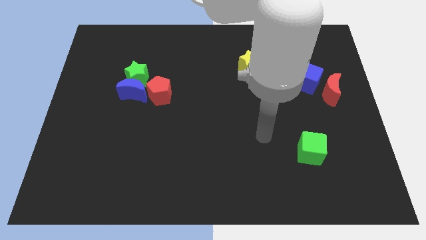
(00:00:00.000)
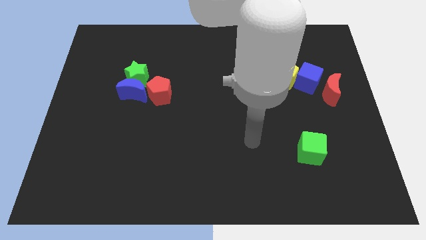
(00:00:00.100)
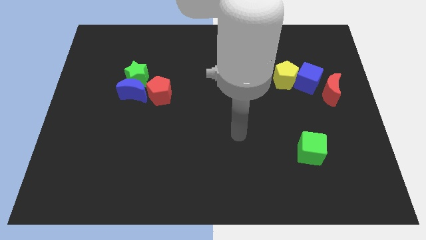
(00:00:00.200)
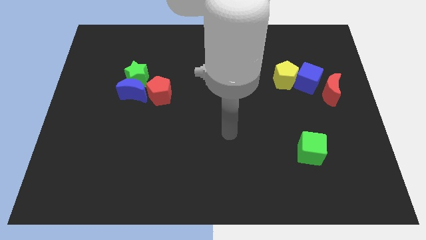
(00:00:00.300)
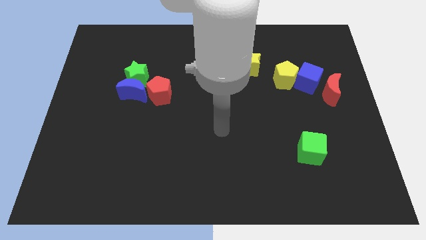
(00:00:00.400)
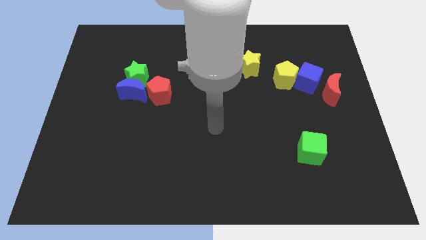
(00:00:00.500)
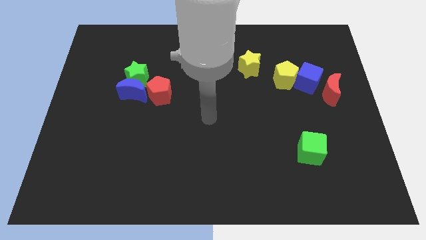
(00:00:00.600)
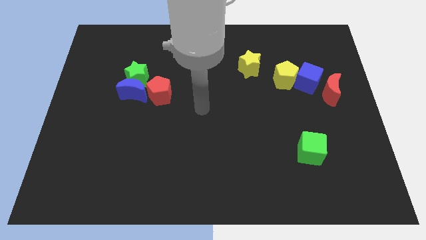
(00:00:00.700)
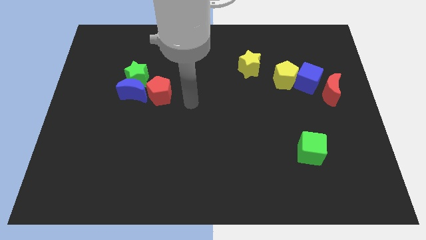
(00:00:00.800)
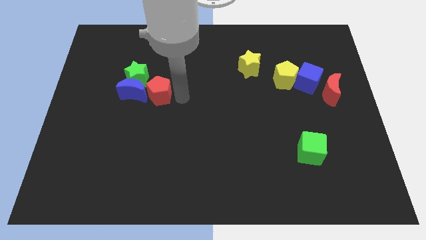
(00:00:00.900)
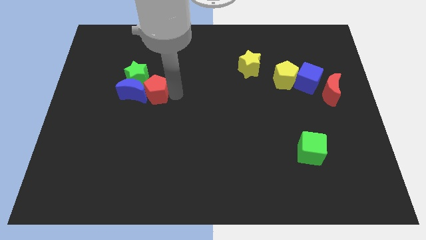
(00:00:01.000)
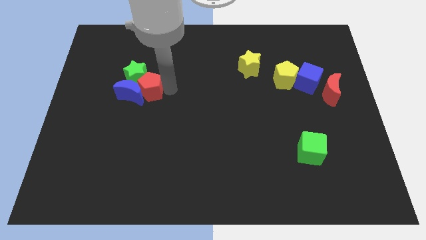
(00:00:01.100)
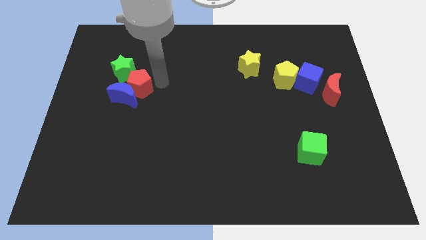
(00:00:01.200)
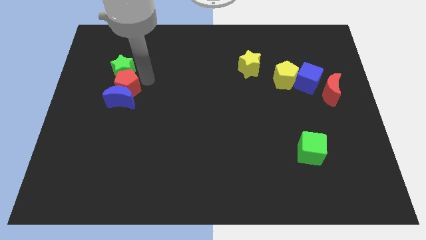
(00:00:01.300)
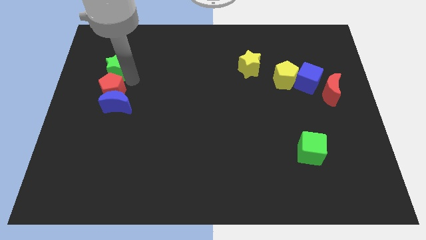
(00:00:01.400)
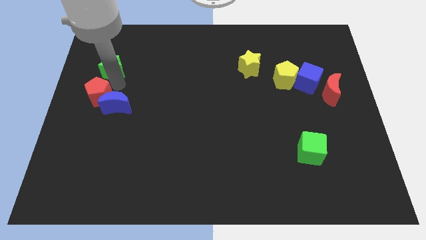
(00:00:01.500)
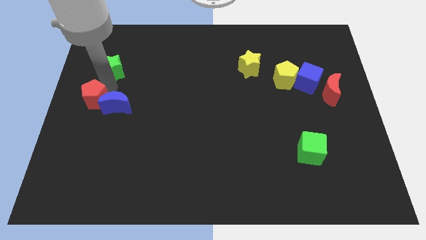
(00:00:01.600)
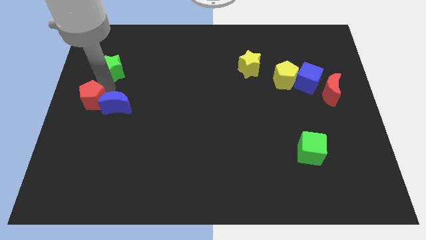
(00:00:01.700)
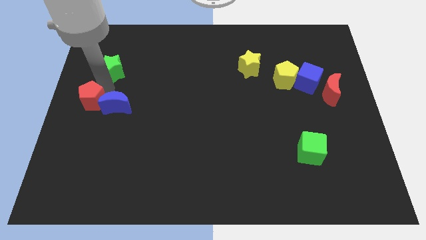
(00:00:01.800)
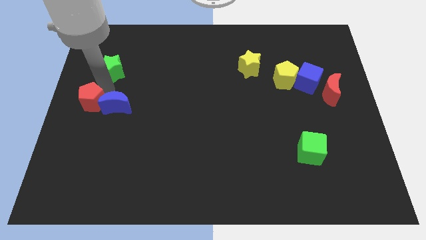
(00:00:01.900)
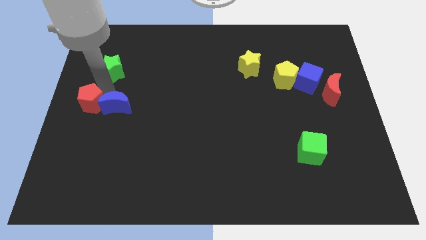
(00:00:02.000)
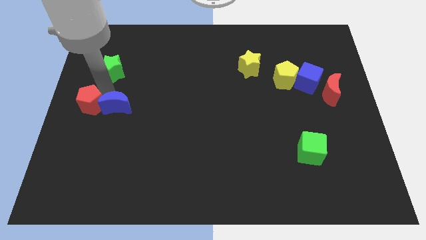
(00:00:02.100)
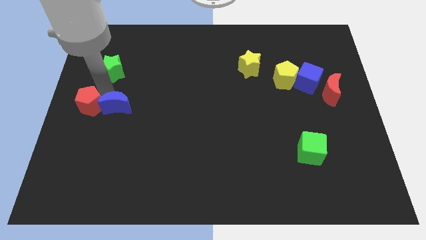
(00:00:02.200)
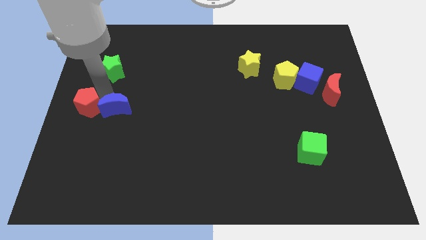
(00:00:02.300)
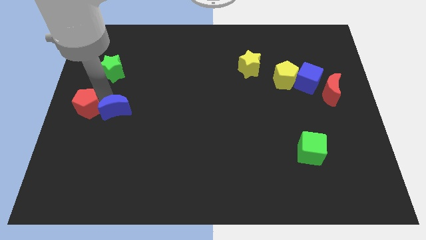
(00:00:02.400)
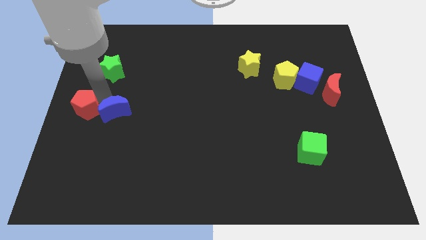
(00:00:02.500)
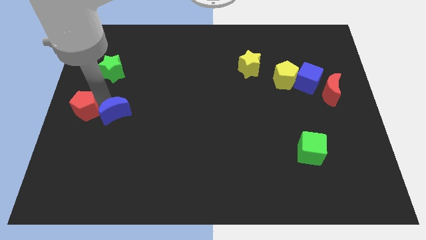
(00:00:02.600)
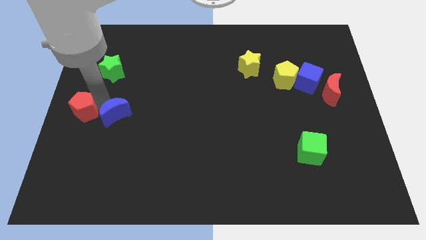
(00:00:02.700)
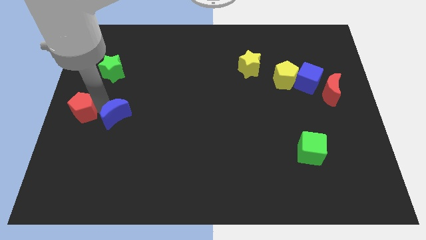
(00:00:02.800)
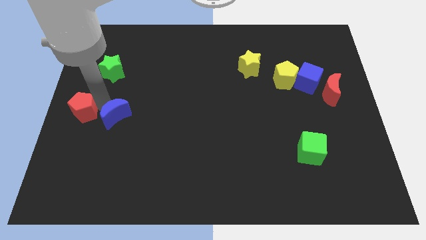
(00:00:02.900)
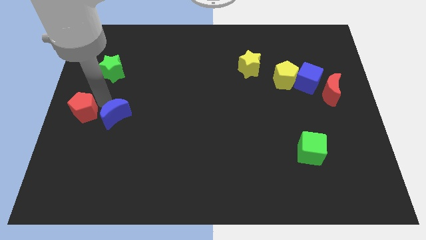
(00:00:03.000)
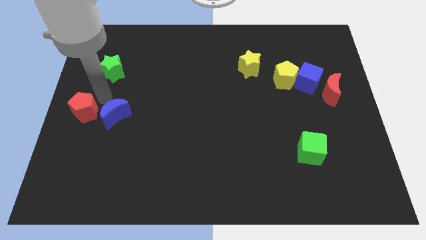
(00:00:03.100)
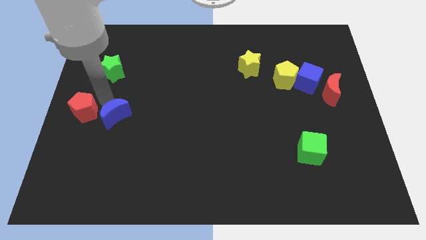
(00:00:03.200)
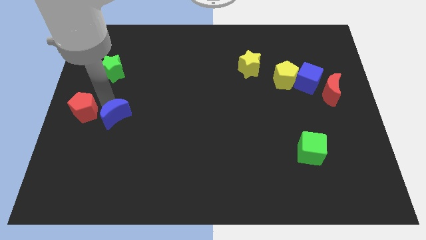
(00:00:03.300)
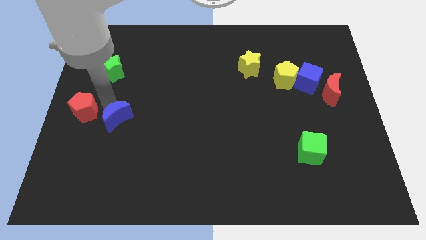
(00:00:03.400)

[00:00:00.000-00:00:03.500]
separate the blue moon from the green star and red pentagon

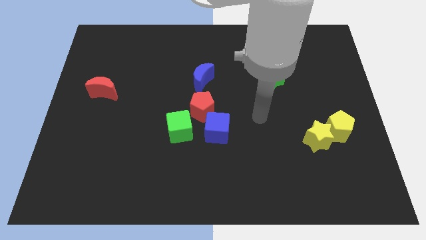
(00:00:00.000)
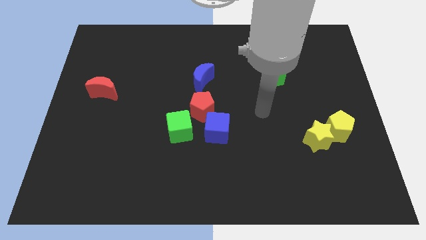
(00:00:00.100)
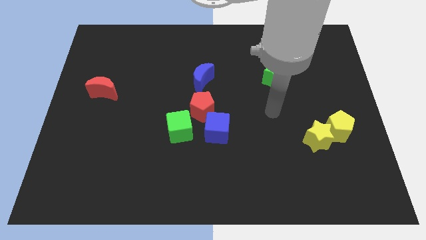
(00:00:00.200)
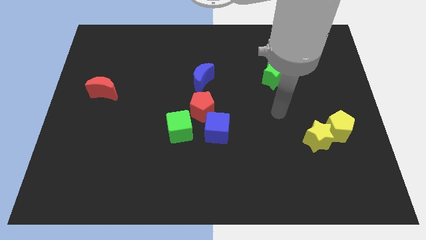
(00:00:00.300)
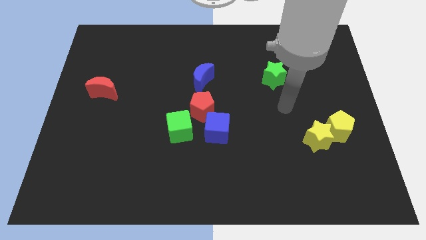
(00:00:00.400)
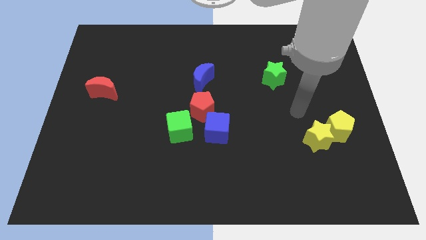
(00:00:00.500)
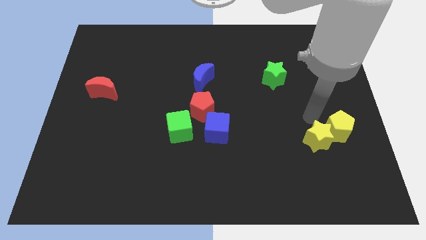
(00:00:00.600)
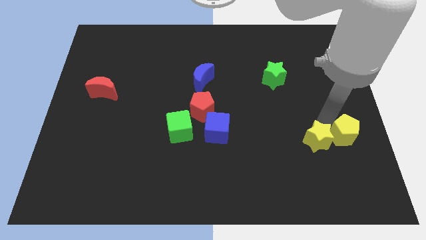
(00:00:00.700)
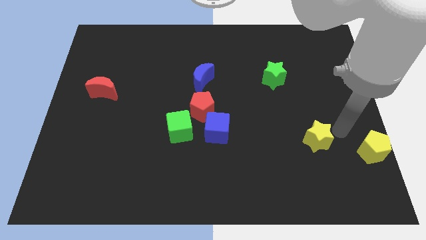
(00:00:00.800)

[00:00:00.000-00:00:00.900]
pull the yellow star apart from the yellow pentagon

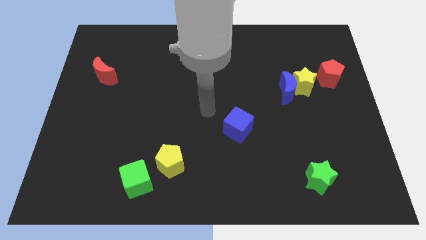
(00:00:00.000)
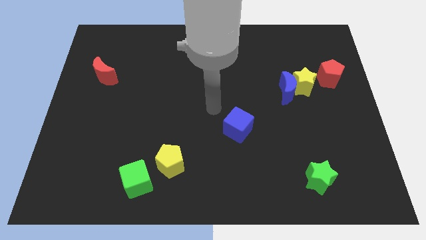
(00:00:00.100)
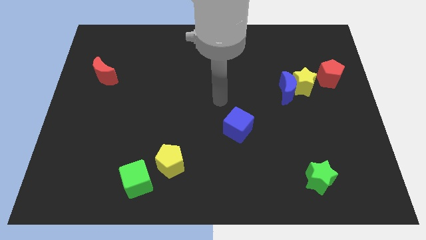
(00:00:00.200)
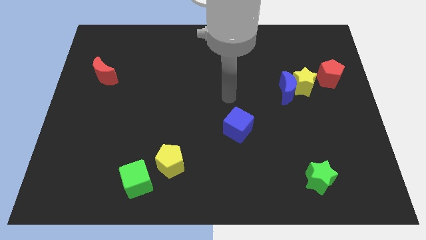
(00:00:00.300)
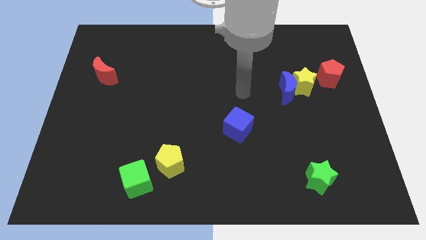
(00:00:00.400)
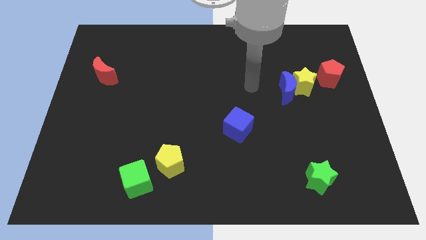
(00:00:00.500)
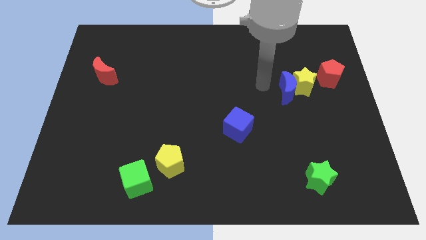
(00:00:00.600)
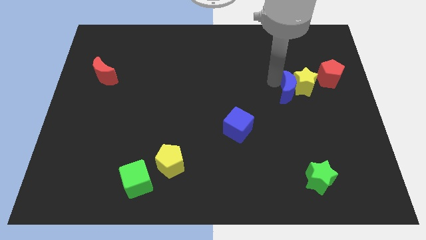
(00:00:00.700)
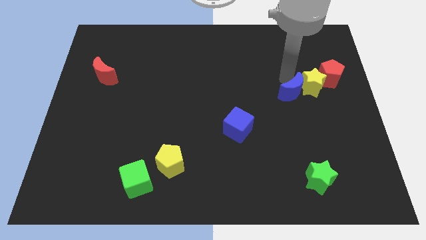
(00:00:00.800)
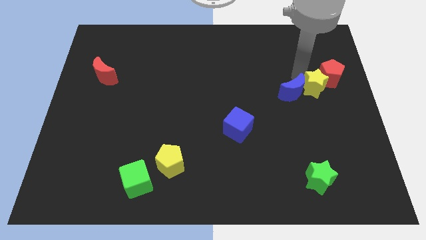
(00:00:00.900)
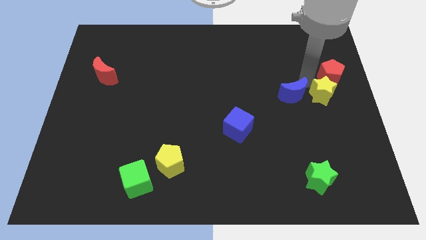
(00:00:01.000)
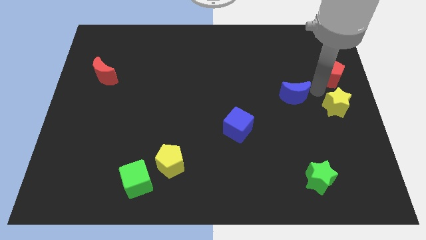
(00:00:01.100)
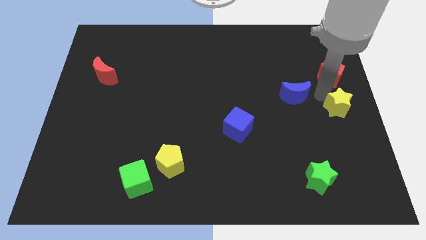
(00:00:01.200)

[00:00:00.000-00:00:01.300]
separate the blue moon from the yellow star

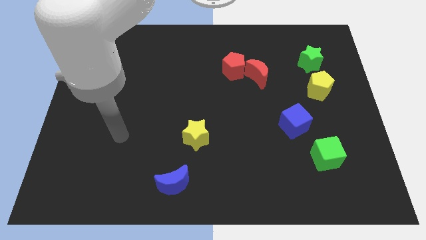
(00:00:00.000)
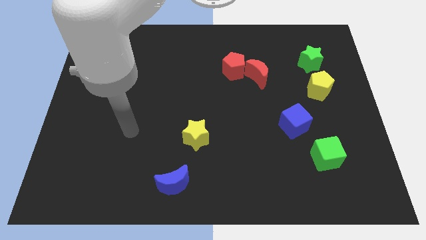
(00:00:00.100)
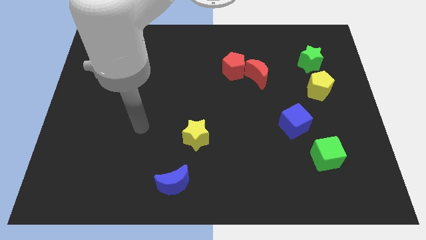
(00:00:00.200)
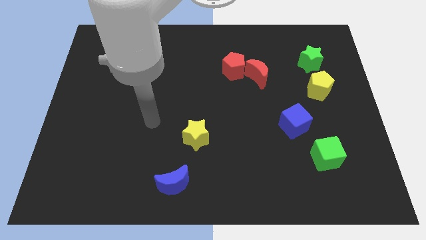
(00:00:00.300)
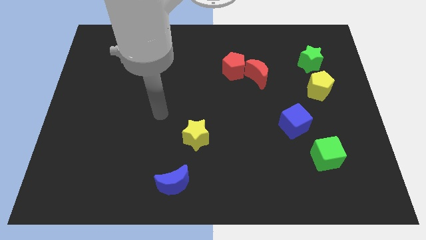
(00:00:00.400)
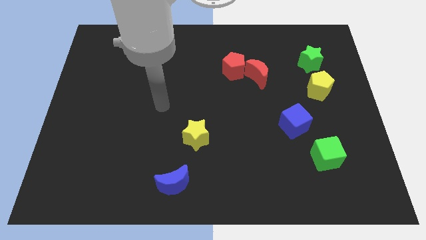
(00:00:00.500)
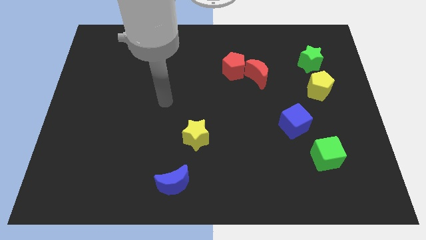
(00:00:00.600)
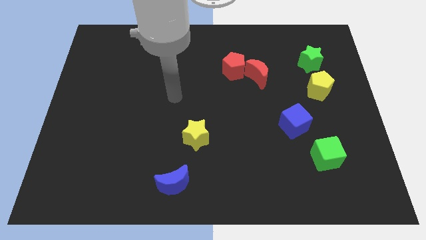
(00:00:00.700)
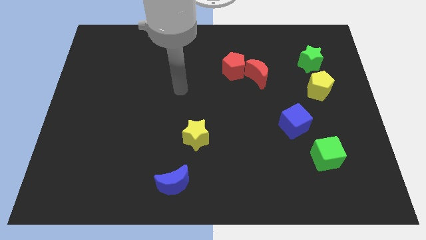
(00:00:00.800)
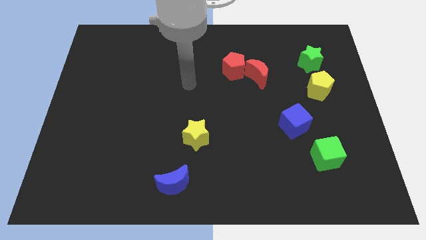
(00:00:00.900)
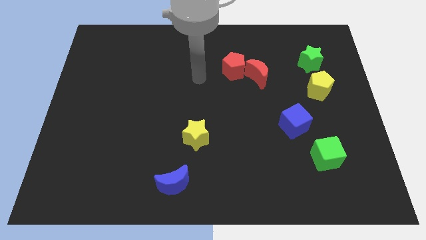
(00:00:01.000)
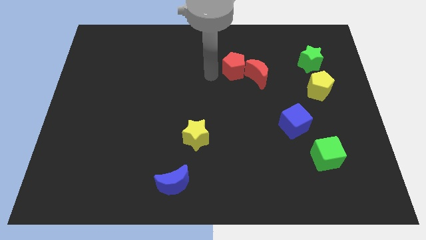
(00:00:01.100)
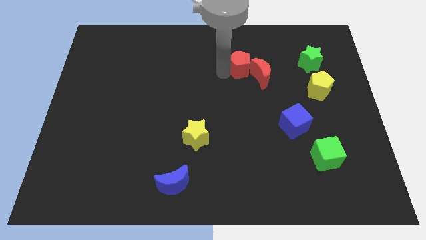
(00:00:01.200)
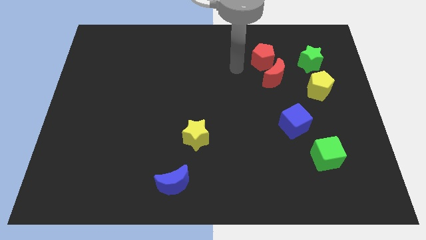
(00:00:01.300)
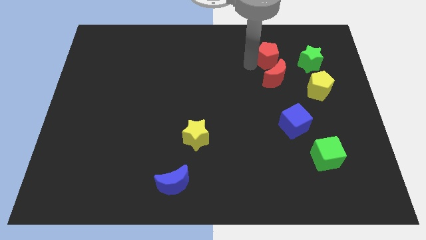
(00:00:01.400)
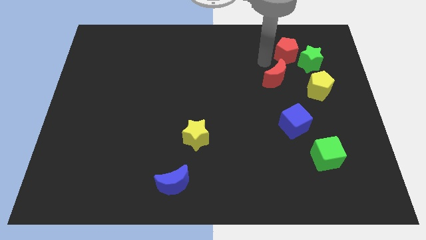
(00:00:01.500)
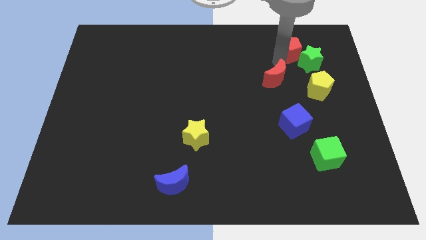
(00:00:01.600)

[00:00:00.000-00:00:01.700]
move the red moon away from the red pentagon

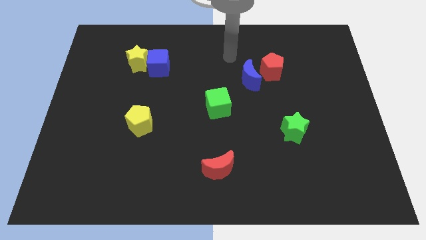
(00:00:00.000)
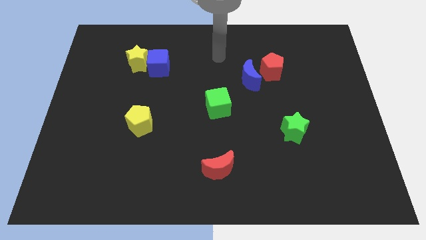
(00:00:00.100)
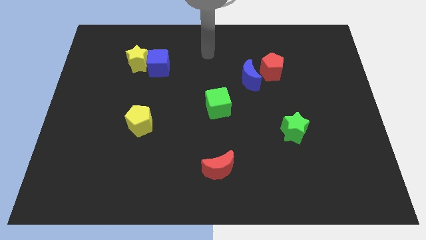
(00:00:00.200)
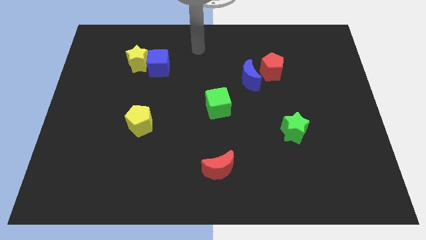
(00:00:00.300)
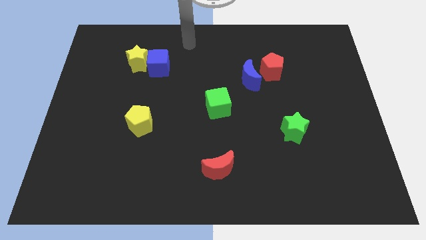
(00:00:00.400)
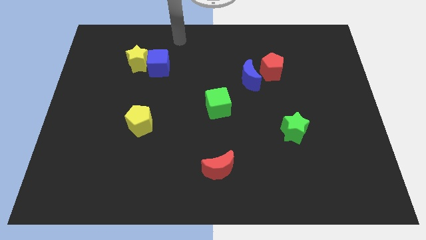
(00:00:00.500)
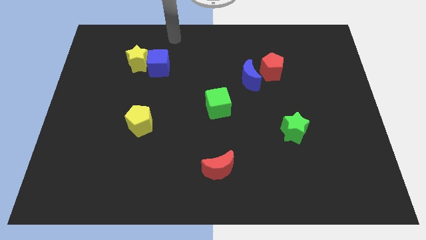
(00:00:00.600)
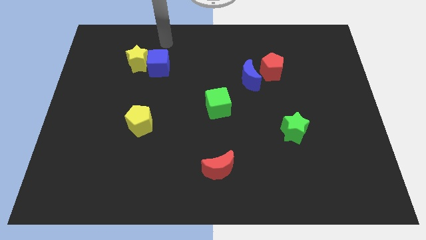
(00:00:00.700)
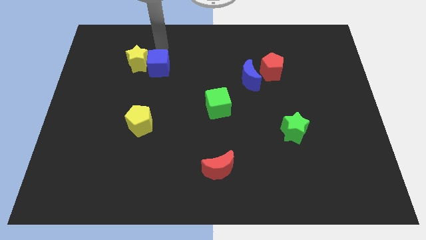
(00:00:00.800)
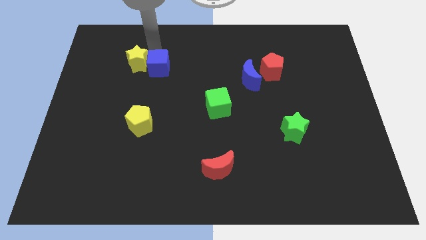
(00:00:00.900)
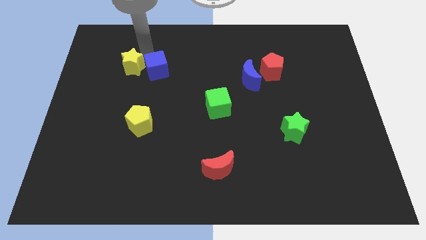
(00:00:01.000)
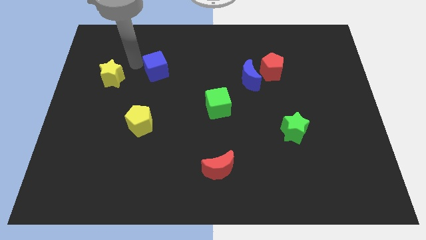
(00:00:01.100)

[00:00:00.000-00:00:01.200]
move the blue cube away from the yellow star

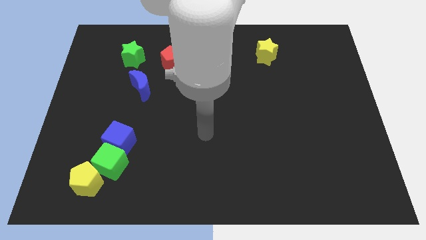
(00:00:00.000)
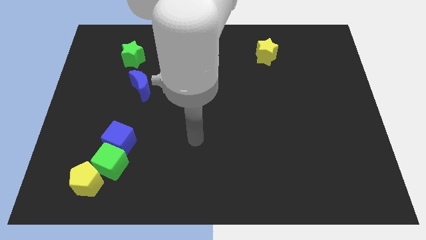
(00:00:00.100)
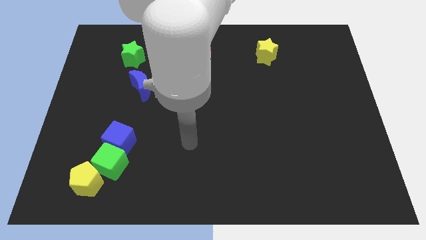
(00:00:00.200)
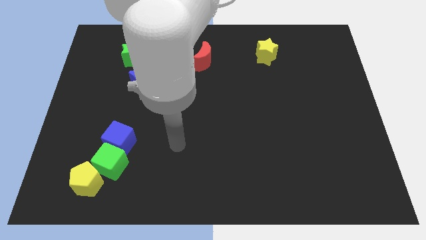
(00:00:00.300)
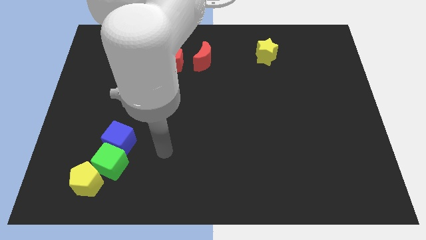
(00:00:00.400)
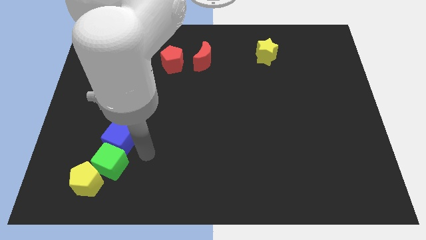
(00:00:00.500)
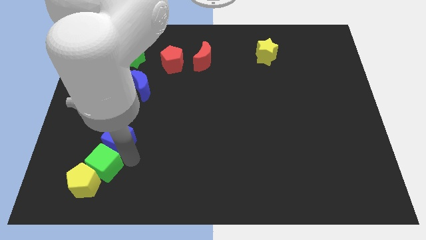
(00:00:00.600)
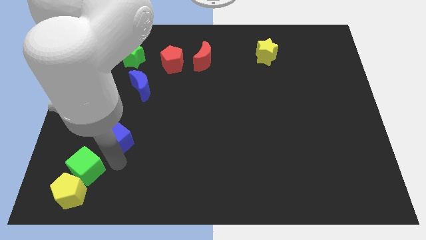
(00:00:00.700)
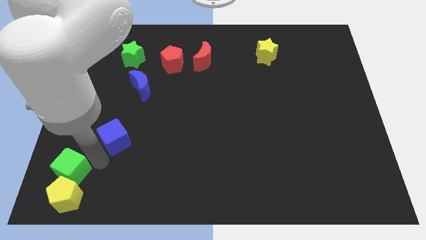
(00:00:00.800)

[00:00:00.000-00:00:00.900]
pull the blue cube apart from the green cube
